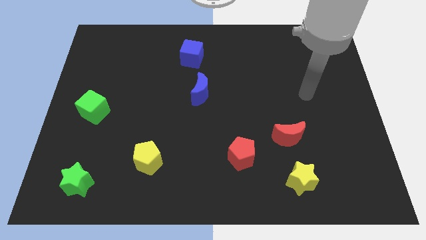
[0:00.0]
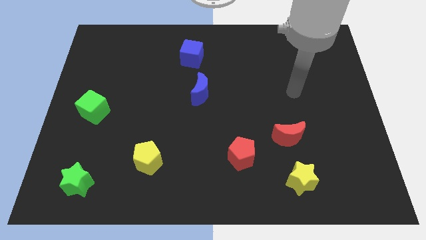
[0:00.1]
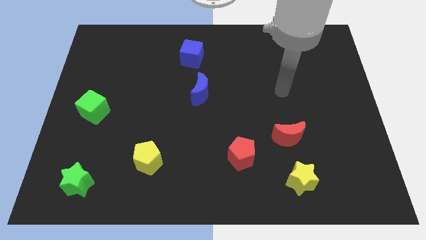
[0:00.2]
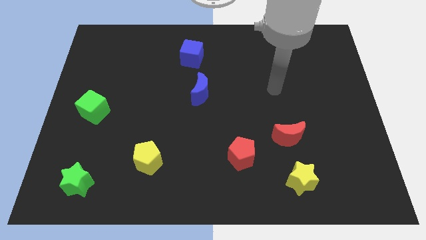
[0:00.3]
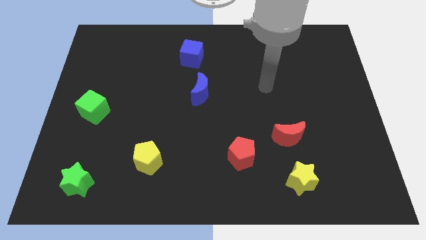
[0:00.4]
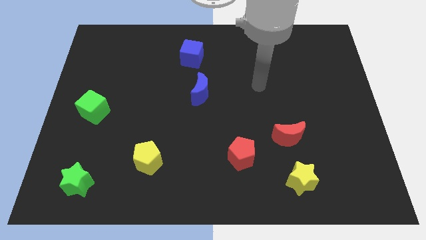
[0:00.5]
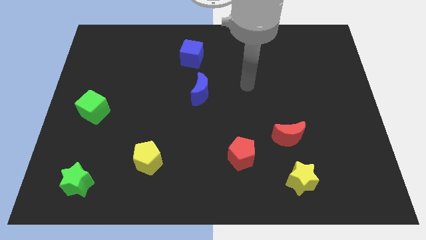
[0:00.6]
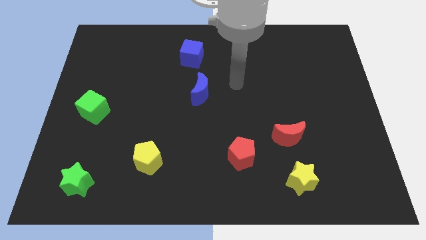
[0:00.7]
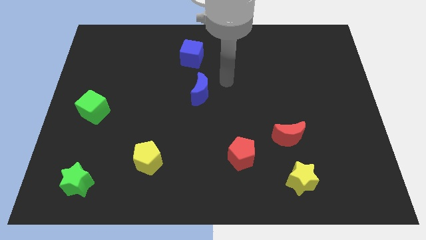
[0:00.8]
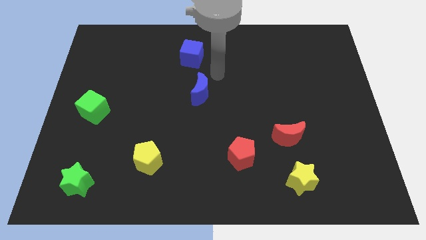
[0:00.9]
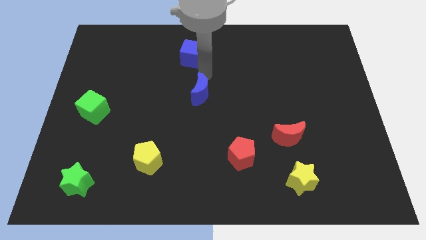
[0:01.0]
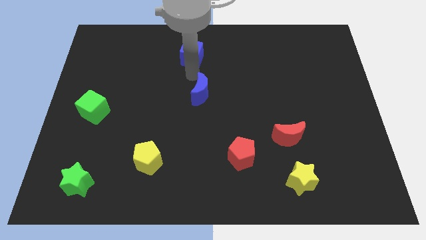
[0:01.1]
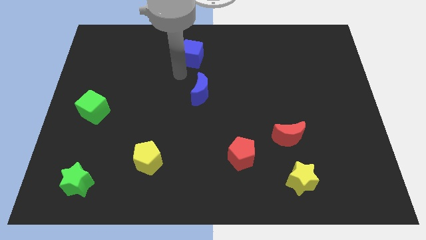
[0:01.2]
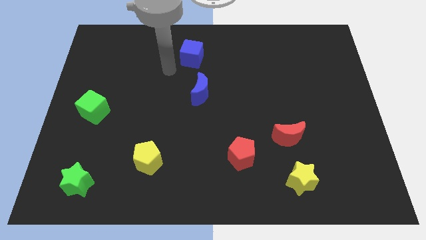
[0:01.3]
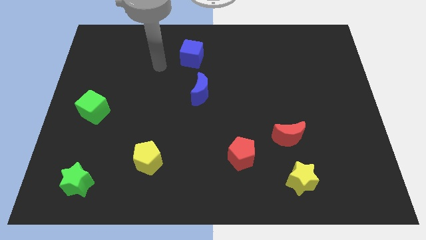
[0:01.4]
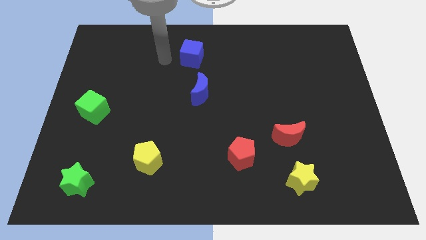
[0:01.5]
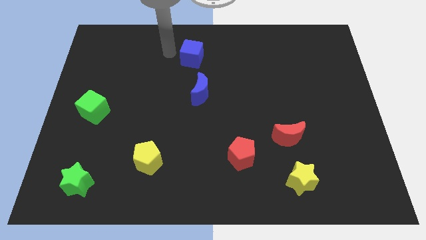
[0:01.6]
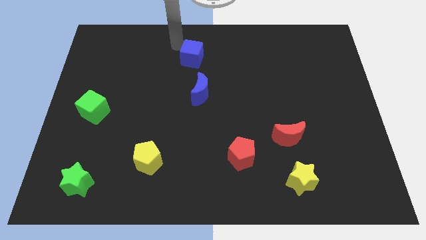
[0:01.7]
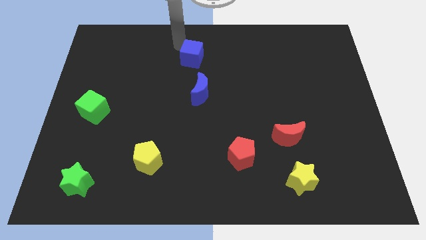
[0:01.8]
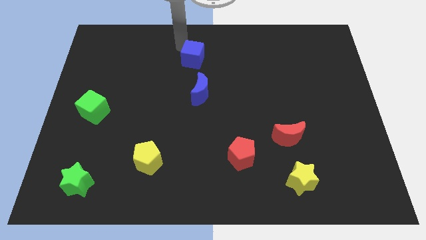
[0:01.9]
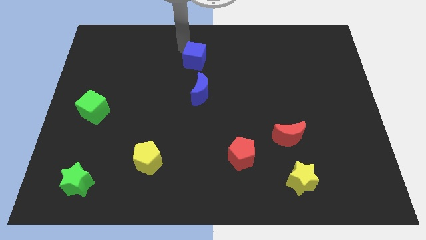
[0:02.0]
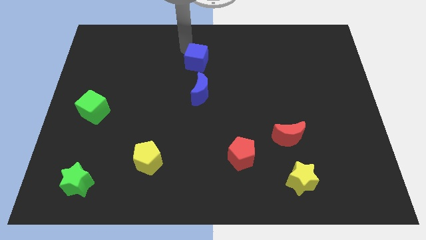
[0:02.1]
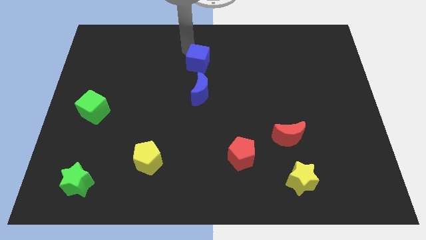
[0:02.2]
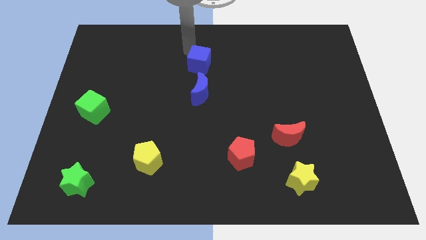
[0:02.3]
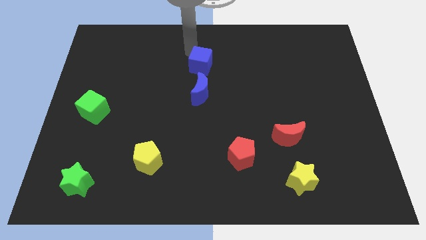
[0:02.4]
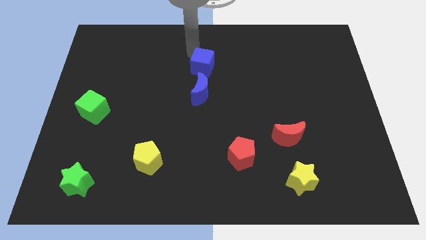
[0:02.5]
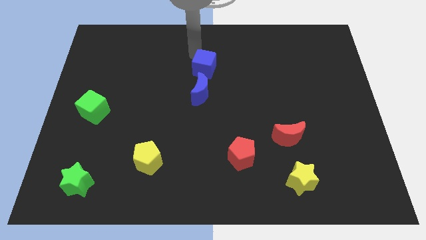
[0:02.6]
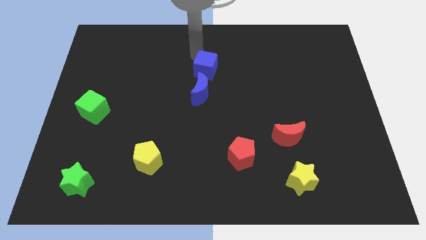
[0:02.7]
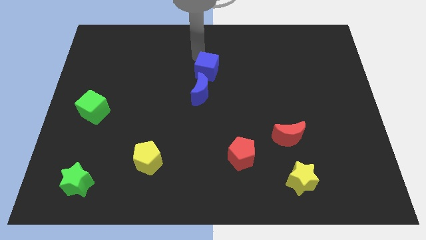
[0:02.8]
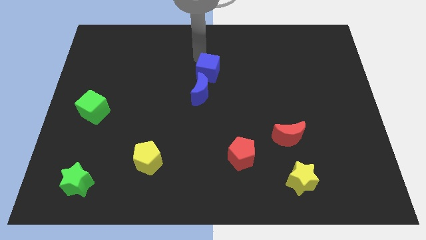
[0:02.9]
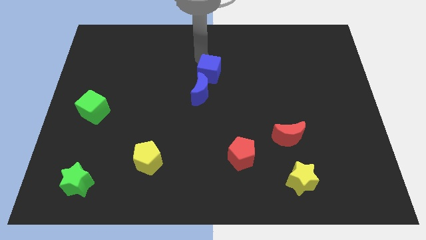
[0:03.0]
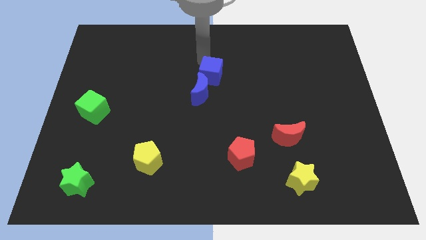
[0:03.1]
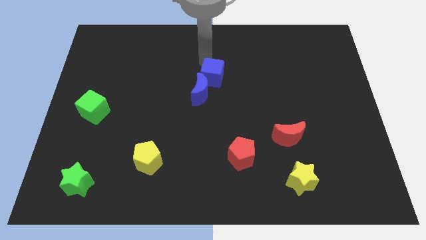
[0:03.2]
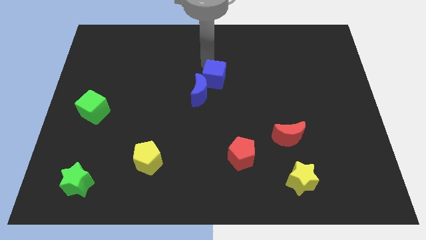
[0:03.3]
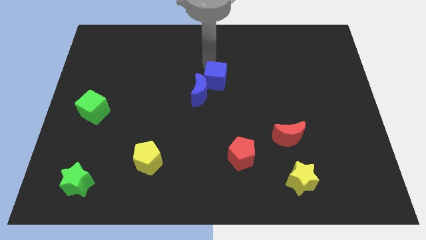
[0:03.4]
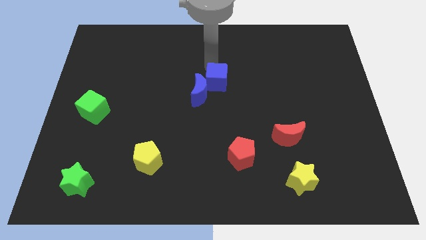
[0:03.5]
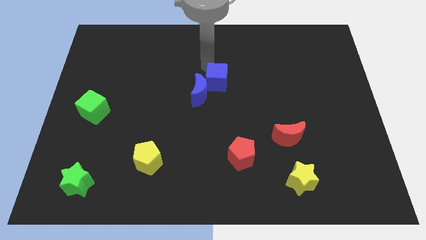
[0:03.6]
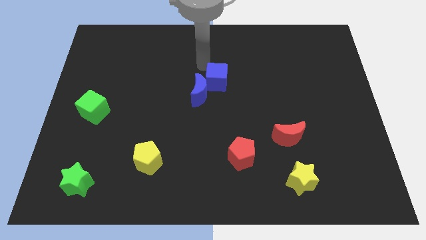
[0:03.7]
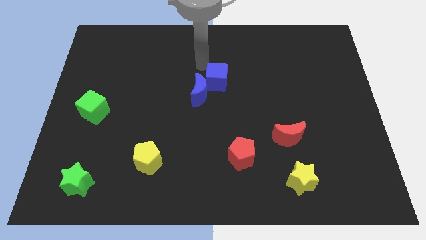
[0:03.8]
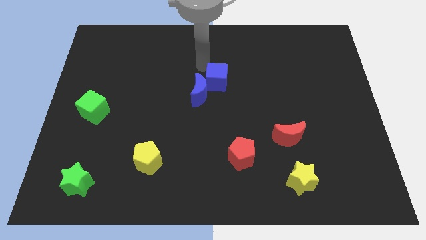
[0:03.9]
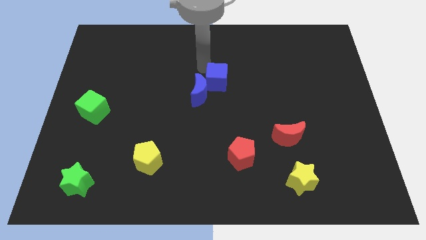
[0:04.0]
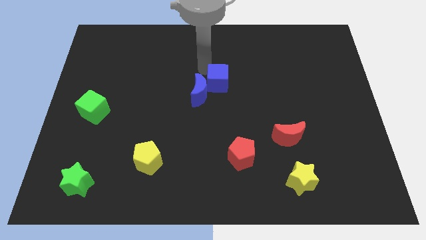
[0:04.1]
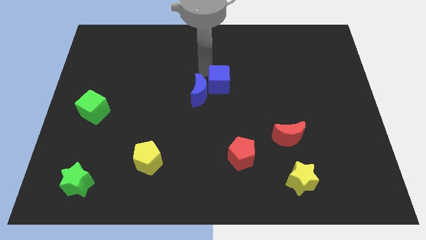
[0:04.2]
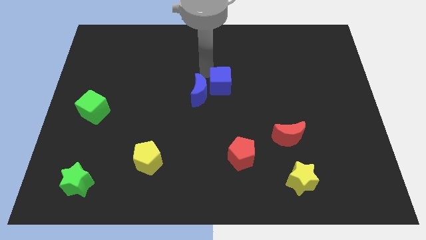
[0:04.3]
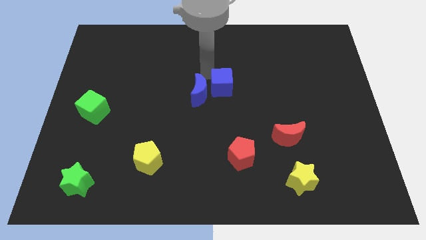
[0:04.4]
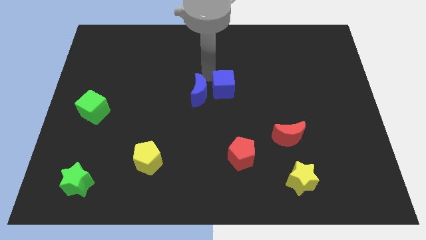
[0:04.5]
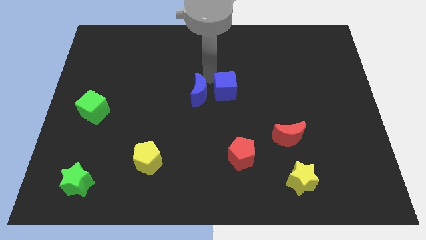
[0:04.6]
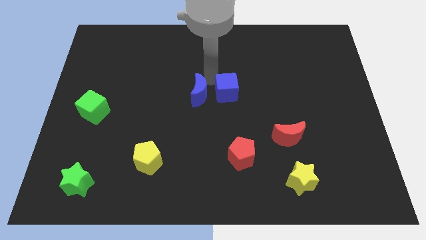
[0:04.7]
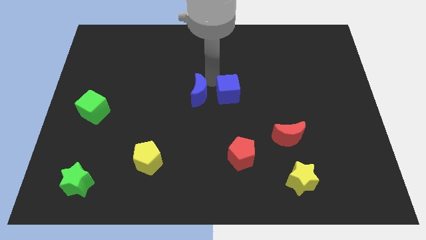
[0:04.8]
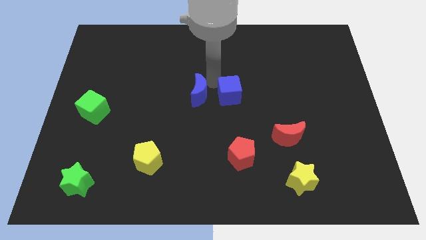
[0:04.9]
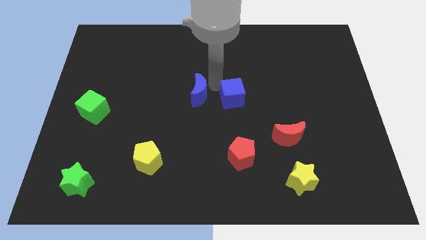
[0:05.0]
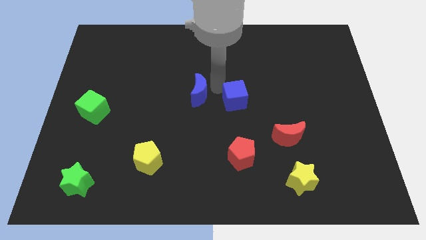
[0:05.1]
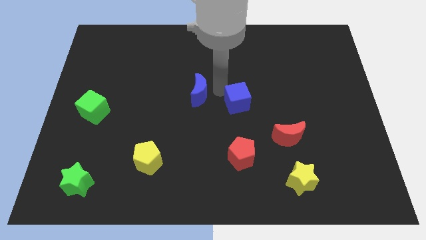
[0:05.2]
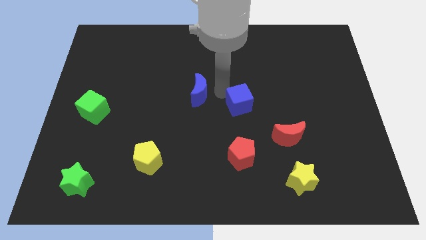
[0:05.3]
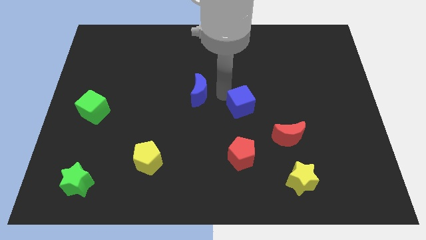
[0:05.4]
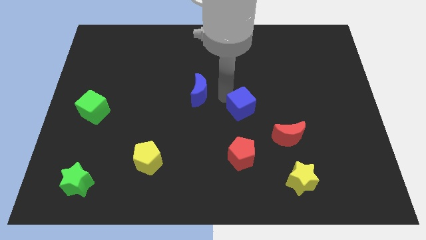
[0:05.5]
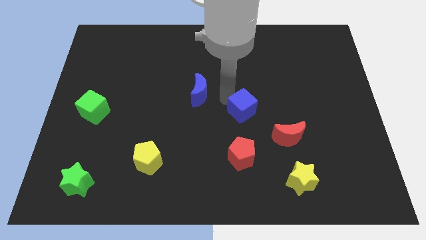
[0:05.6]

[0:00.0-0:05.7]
move the blue cube to the top left side of the red moon

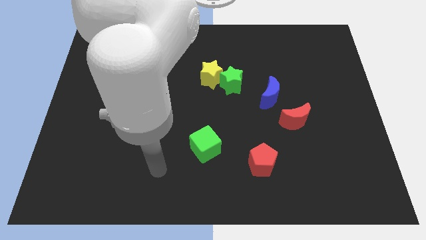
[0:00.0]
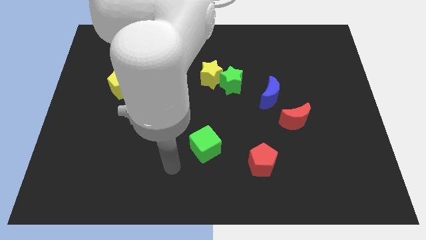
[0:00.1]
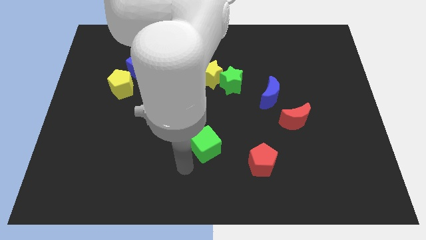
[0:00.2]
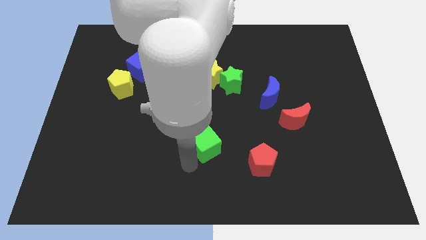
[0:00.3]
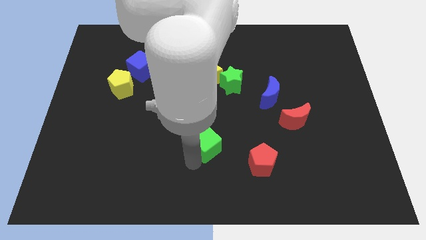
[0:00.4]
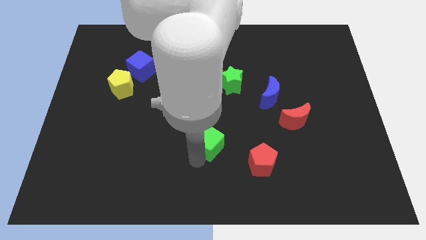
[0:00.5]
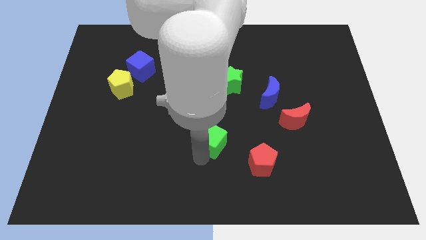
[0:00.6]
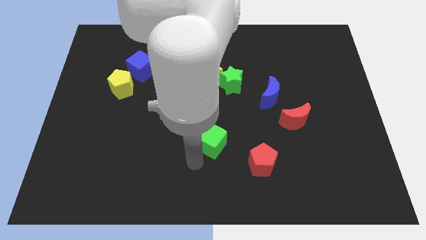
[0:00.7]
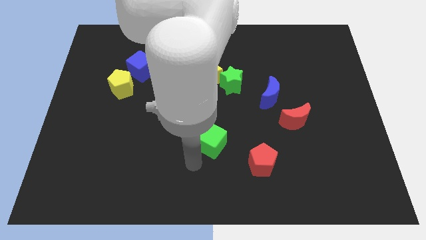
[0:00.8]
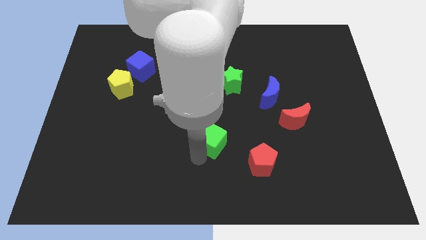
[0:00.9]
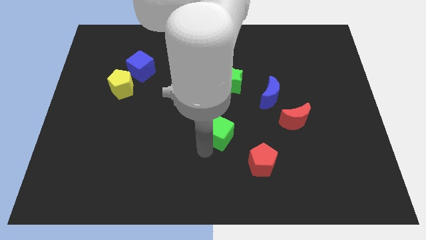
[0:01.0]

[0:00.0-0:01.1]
slide the green cube to the bottom side of the green star

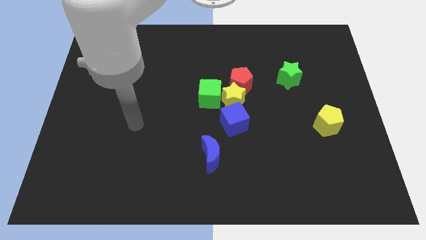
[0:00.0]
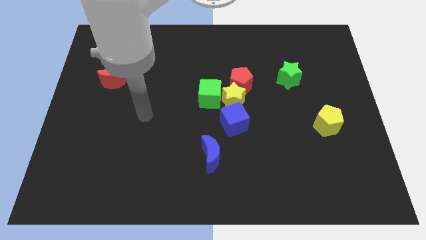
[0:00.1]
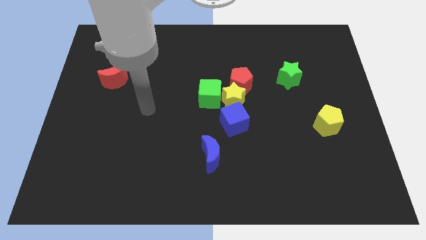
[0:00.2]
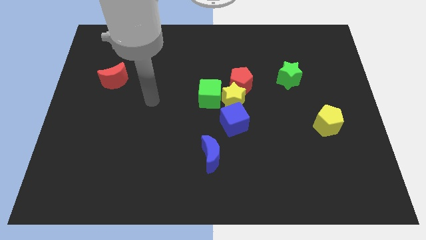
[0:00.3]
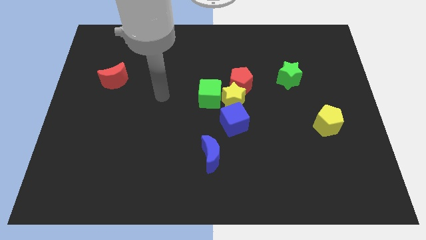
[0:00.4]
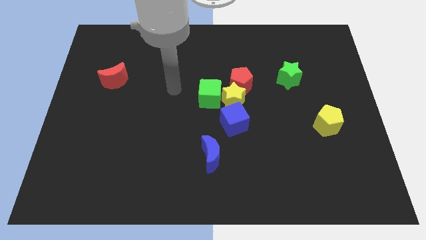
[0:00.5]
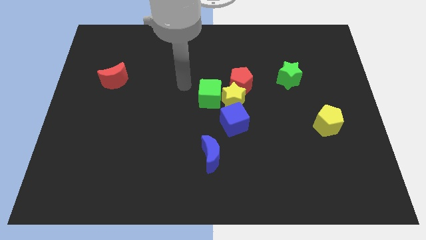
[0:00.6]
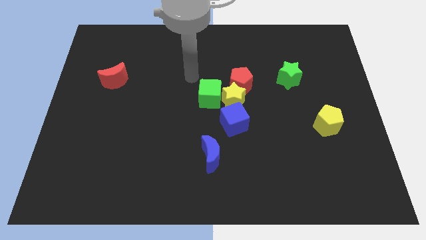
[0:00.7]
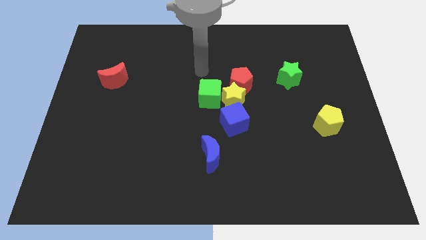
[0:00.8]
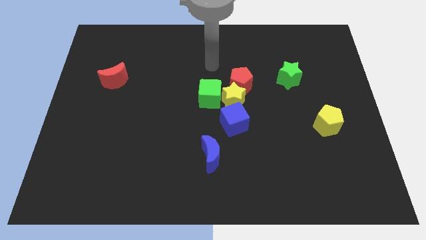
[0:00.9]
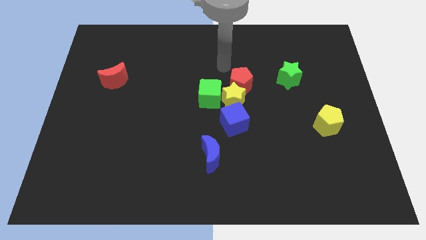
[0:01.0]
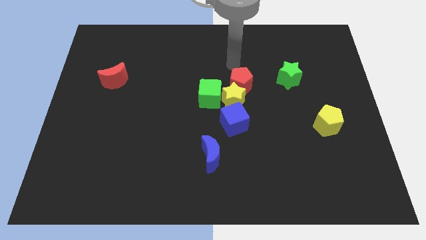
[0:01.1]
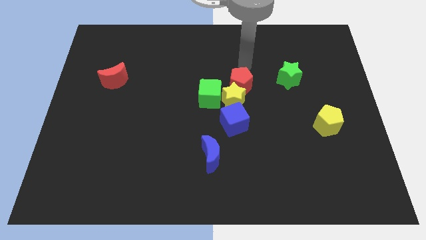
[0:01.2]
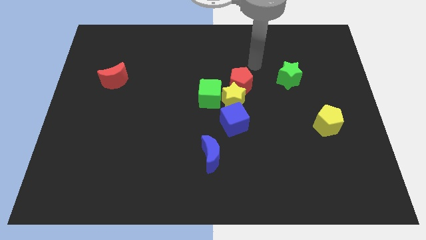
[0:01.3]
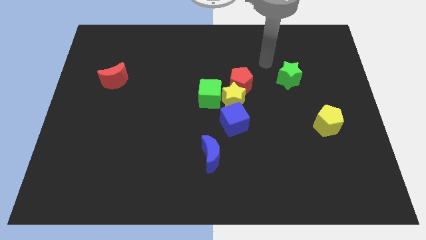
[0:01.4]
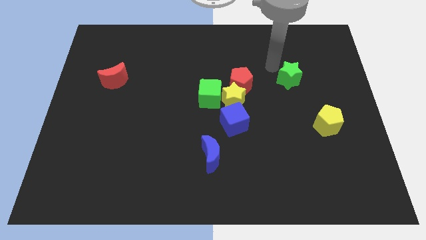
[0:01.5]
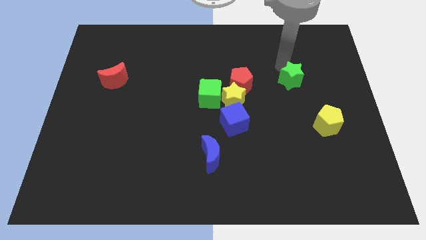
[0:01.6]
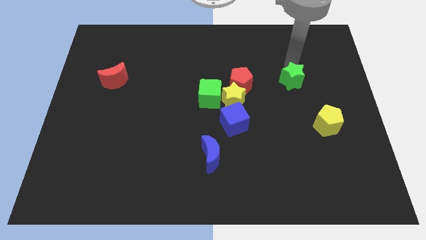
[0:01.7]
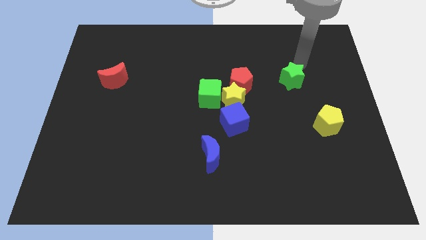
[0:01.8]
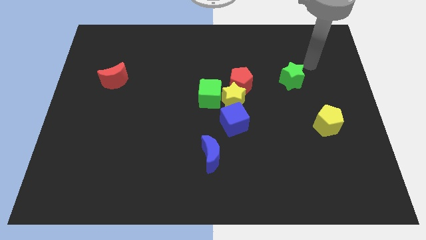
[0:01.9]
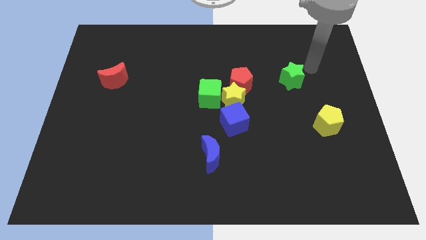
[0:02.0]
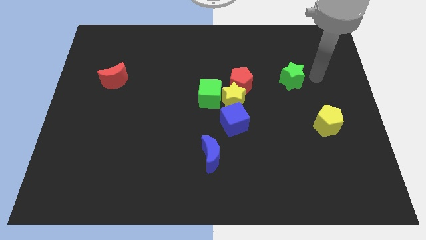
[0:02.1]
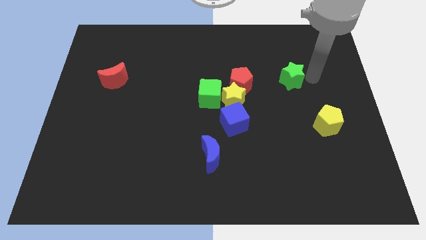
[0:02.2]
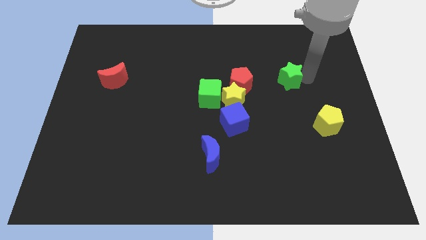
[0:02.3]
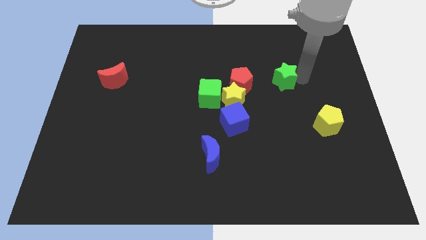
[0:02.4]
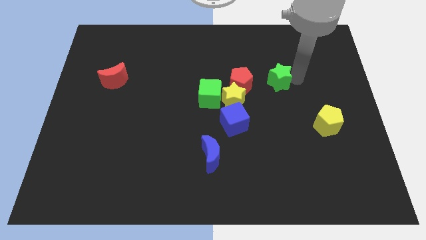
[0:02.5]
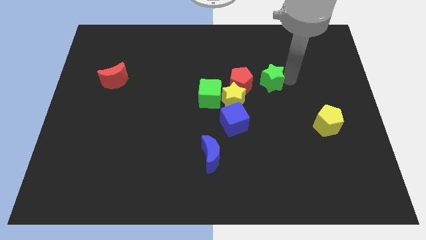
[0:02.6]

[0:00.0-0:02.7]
push the green star to the top right of the yellow star
